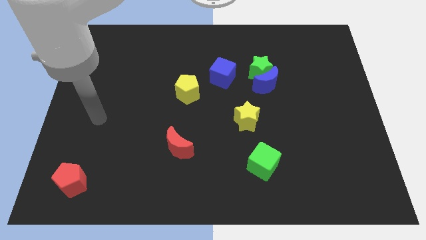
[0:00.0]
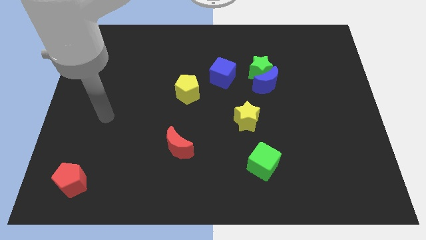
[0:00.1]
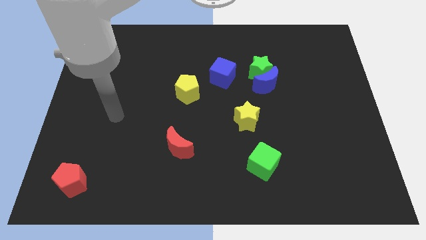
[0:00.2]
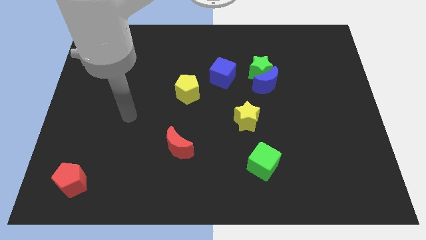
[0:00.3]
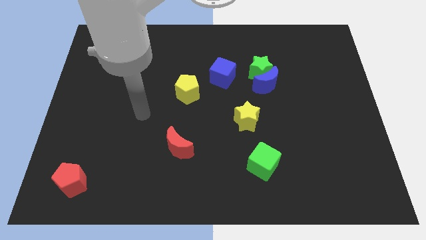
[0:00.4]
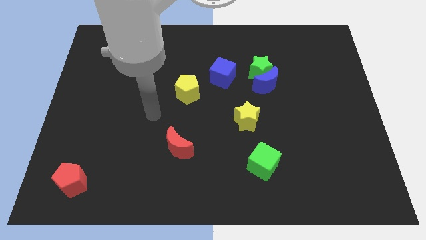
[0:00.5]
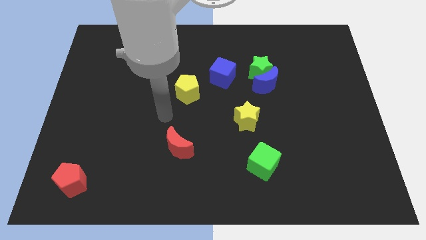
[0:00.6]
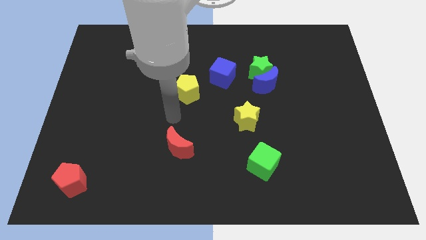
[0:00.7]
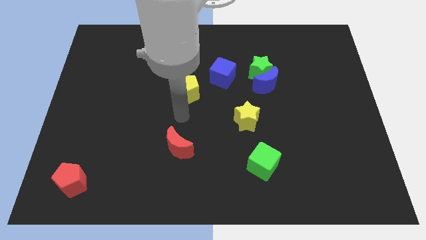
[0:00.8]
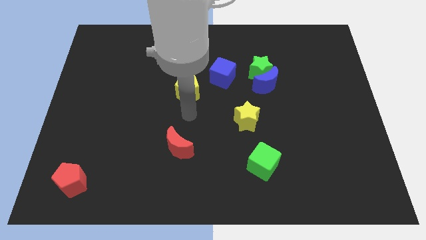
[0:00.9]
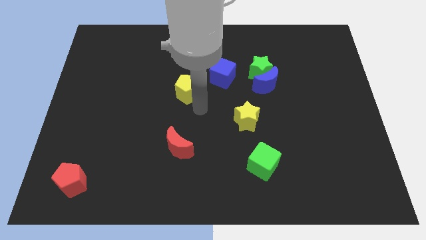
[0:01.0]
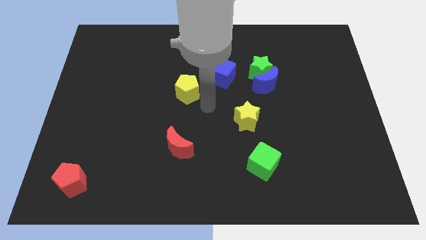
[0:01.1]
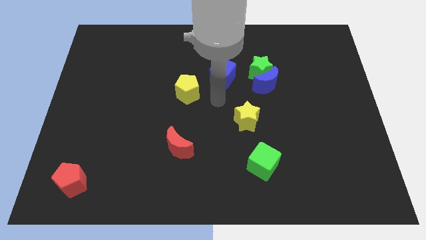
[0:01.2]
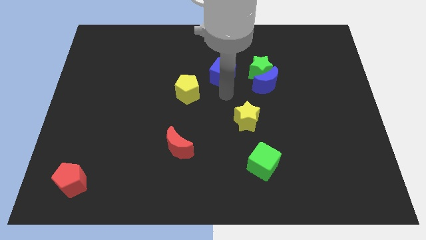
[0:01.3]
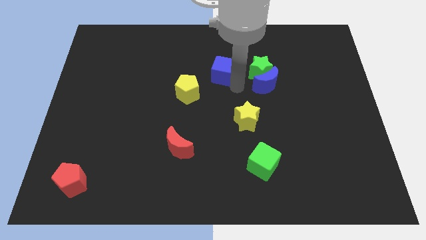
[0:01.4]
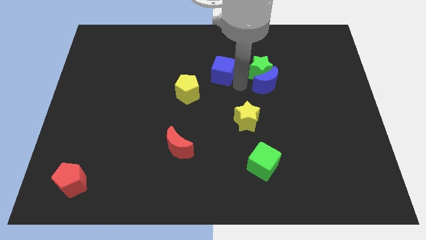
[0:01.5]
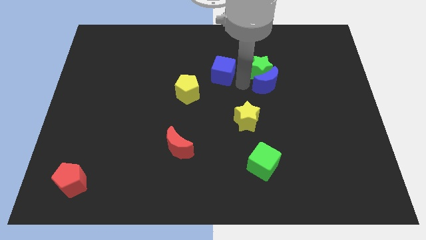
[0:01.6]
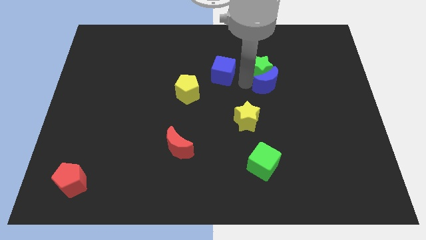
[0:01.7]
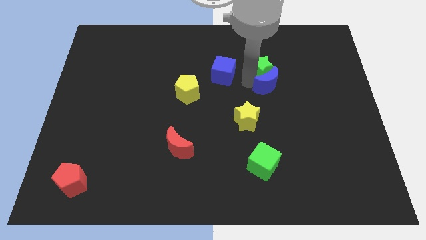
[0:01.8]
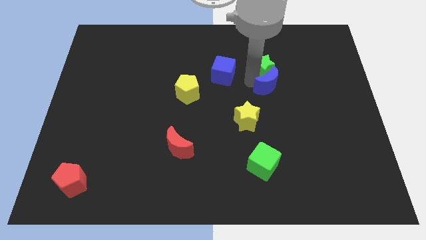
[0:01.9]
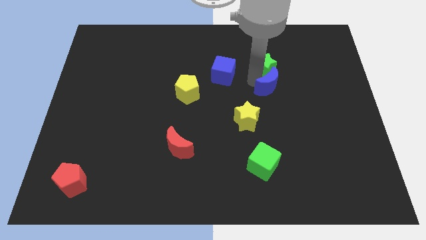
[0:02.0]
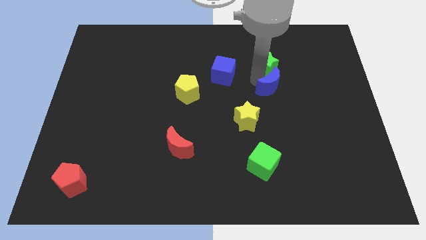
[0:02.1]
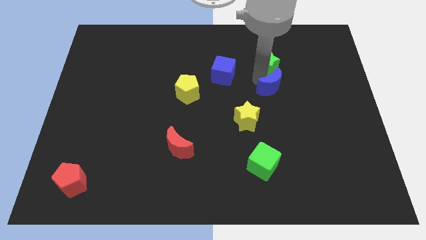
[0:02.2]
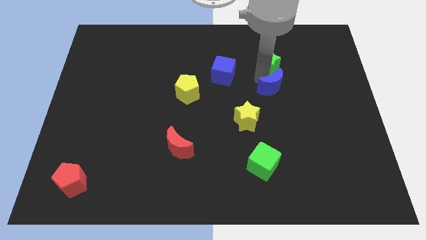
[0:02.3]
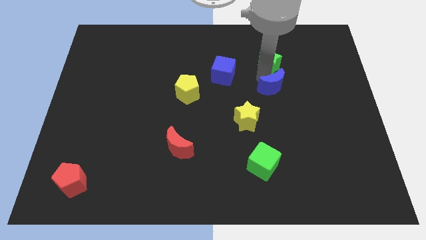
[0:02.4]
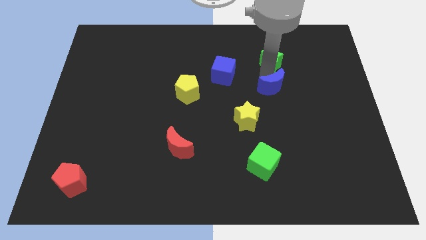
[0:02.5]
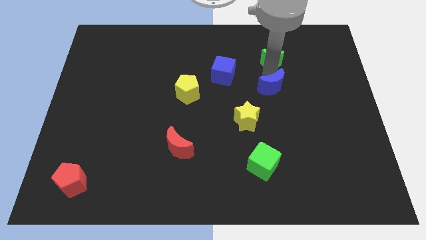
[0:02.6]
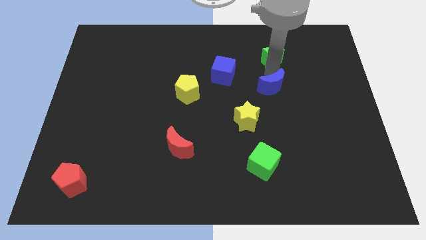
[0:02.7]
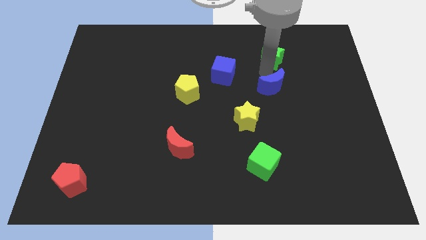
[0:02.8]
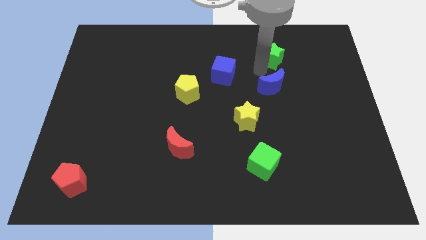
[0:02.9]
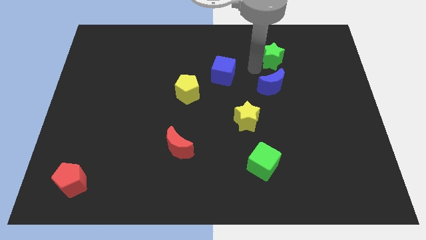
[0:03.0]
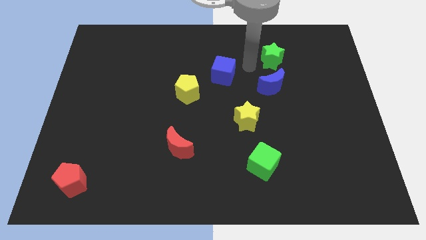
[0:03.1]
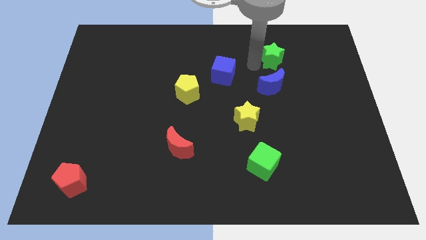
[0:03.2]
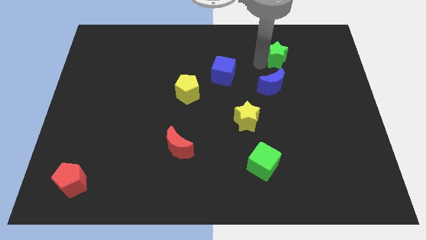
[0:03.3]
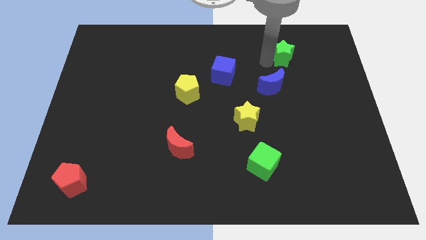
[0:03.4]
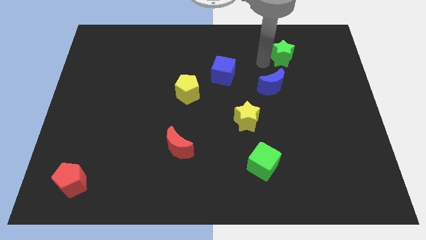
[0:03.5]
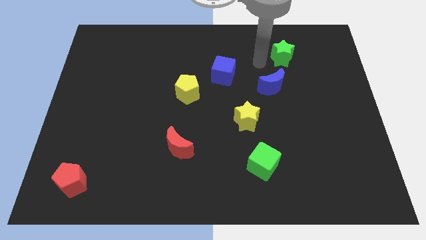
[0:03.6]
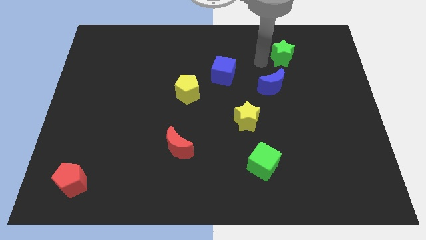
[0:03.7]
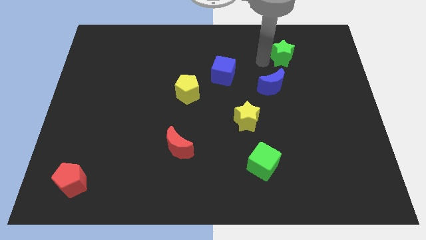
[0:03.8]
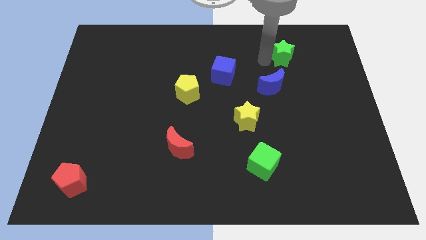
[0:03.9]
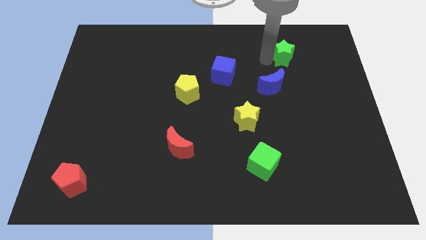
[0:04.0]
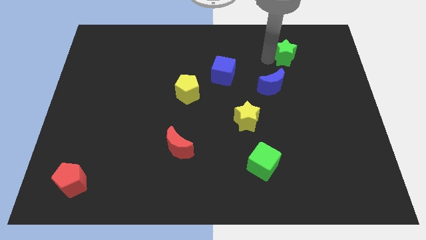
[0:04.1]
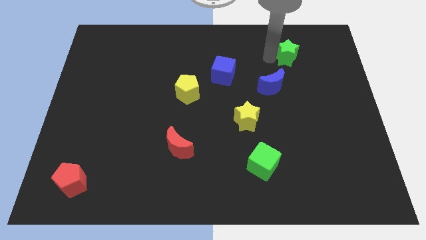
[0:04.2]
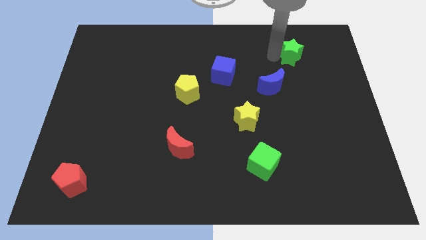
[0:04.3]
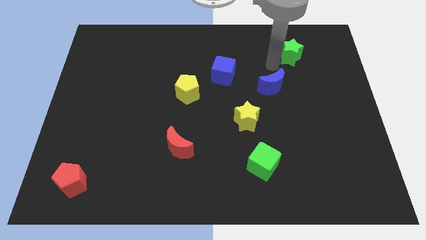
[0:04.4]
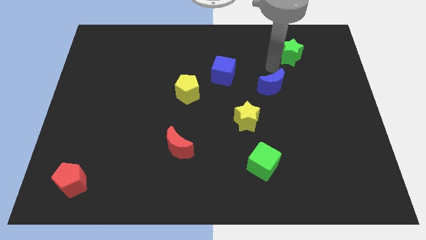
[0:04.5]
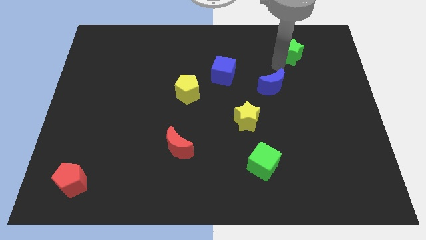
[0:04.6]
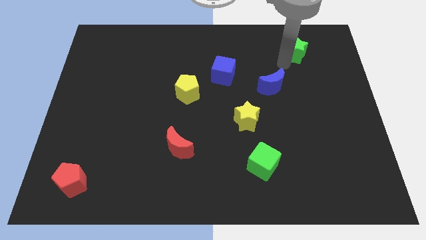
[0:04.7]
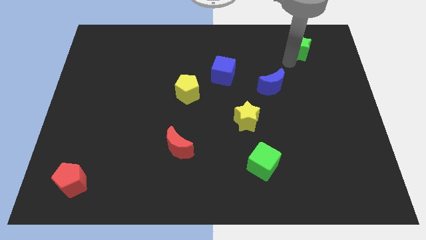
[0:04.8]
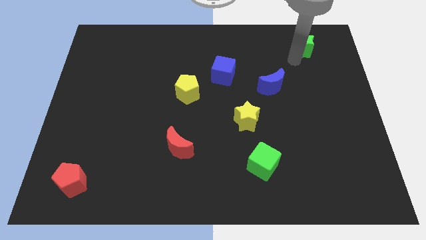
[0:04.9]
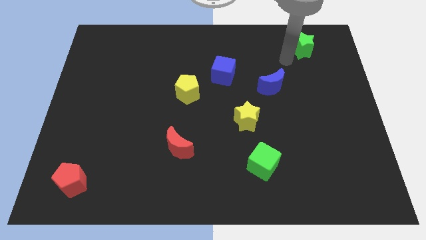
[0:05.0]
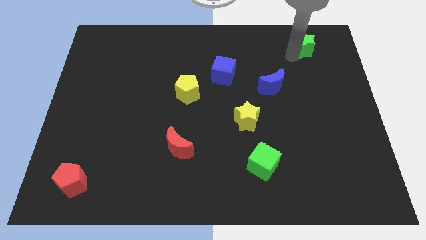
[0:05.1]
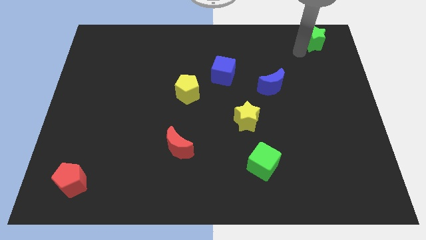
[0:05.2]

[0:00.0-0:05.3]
push the green star to the top right of the board

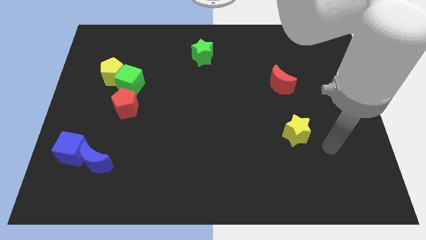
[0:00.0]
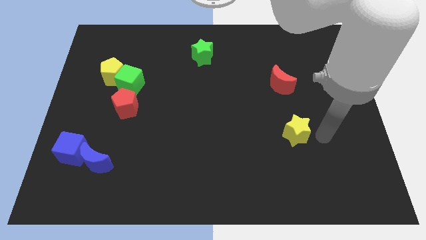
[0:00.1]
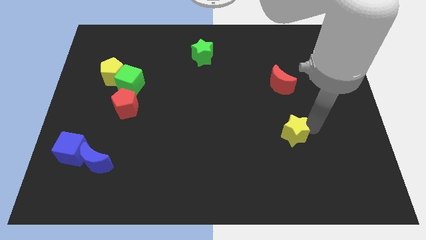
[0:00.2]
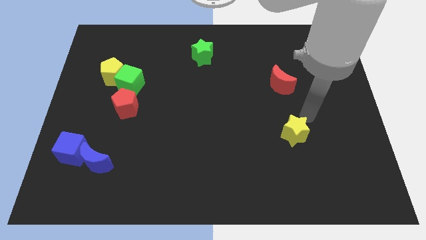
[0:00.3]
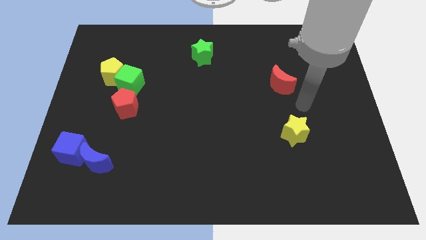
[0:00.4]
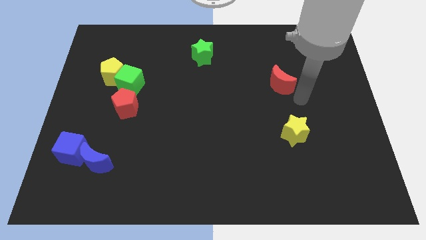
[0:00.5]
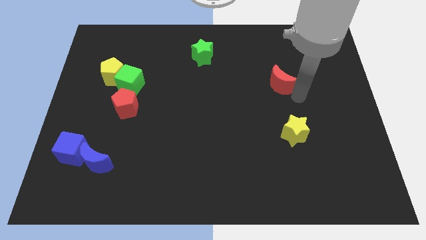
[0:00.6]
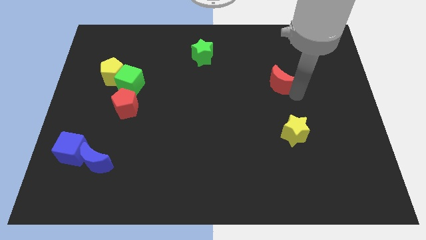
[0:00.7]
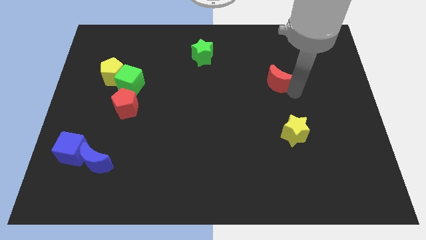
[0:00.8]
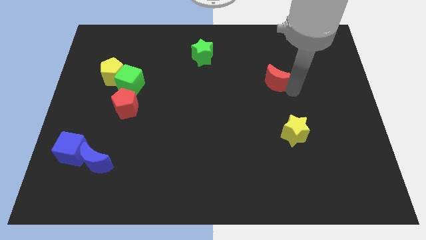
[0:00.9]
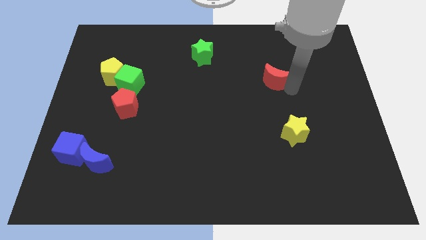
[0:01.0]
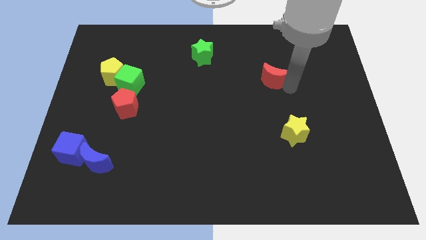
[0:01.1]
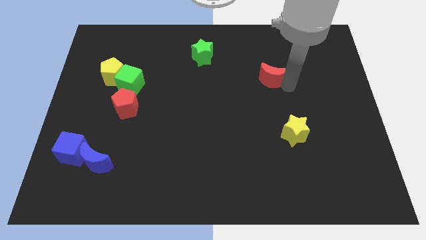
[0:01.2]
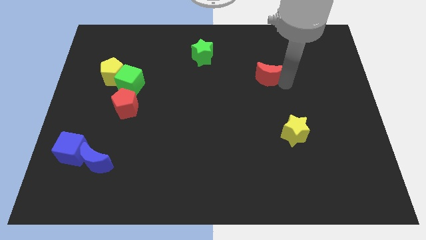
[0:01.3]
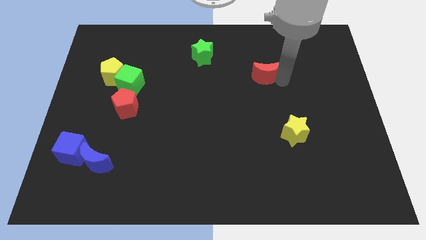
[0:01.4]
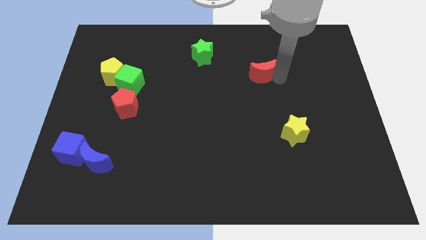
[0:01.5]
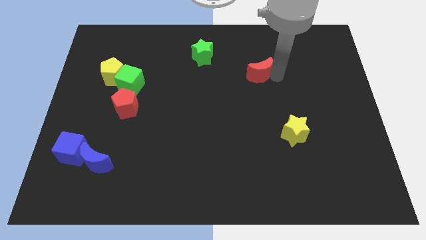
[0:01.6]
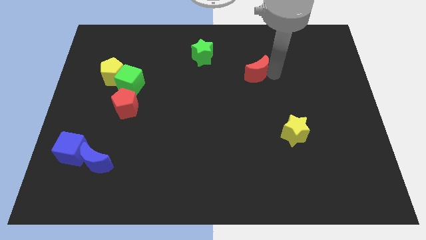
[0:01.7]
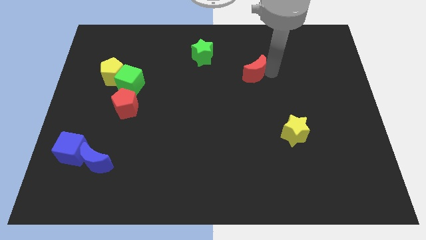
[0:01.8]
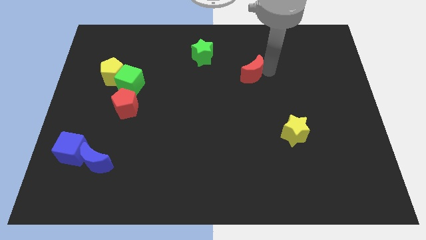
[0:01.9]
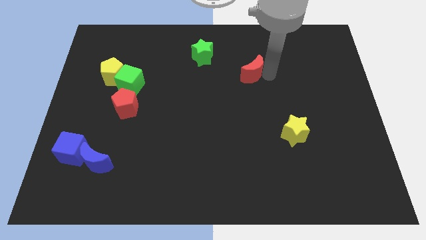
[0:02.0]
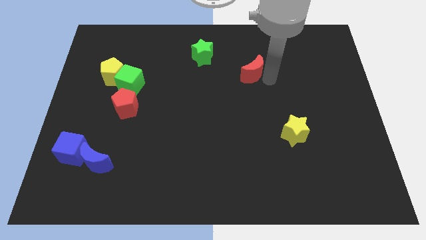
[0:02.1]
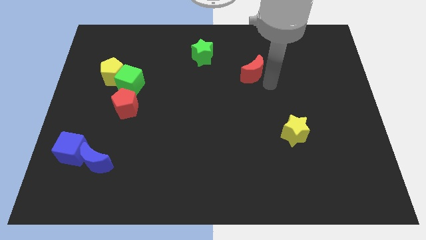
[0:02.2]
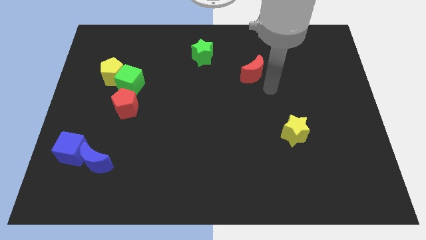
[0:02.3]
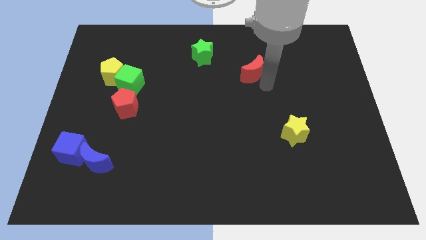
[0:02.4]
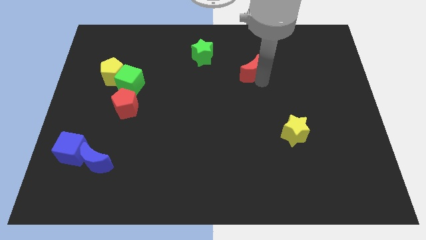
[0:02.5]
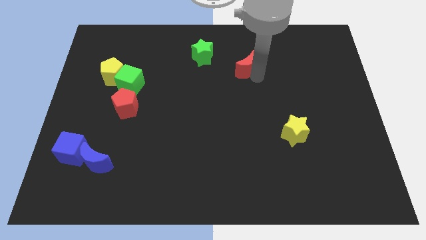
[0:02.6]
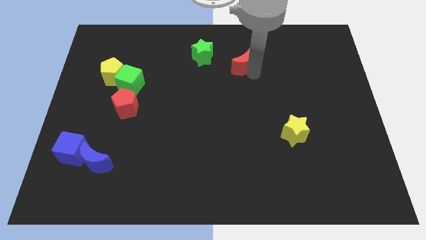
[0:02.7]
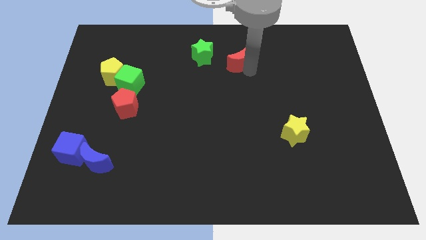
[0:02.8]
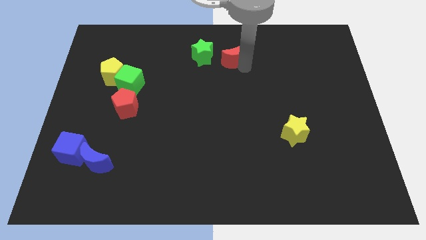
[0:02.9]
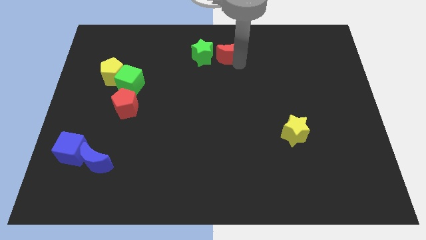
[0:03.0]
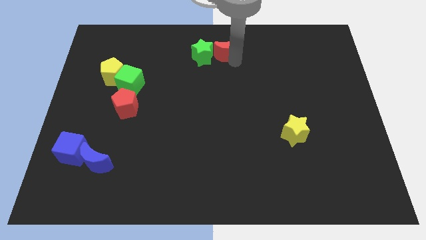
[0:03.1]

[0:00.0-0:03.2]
slide the red moon to the towards your base
